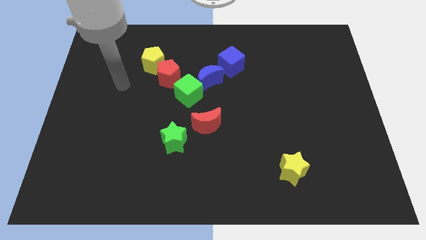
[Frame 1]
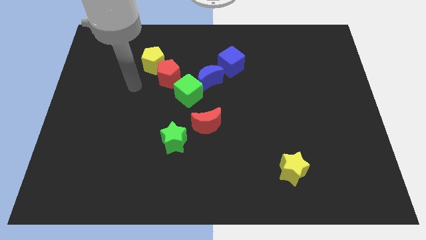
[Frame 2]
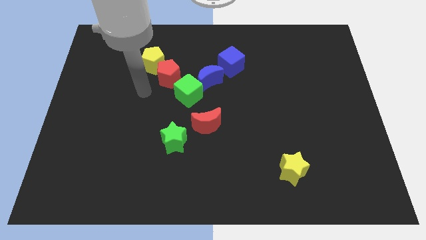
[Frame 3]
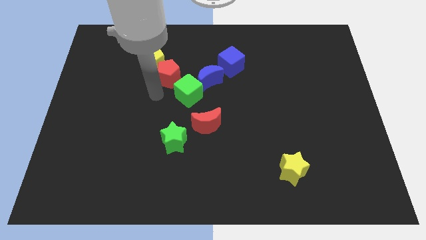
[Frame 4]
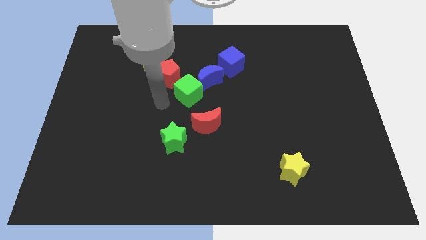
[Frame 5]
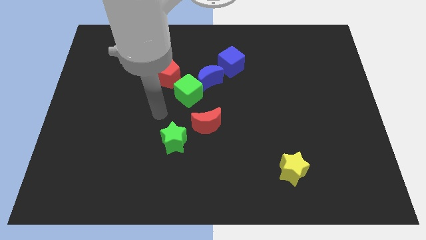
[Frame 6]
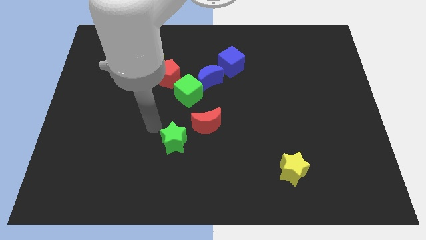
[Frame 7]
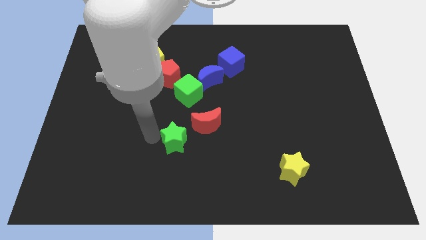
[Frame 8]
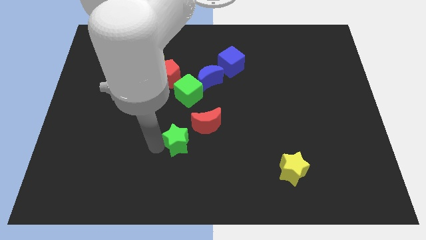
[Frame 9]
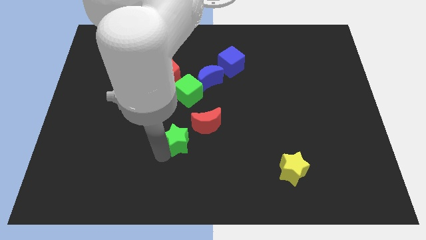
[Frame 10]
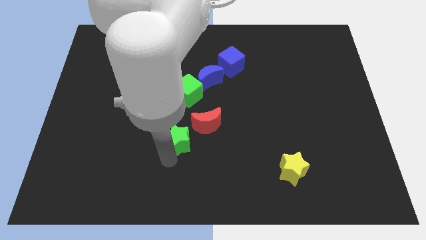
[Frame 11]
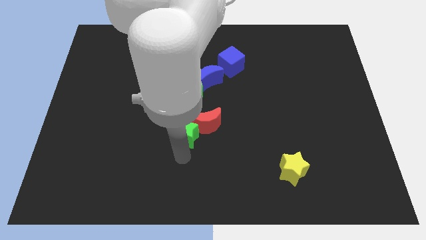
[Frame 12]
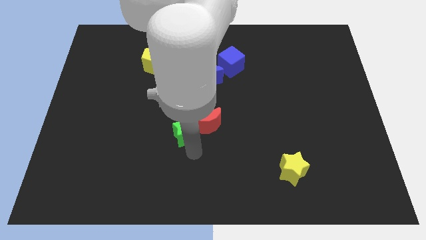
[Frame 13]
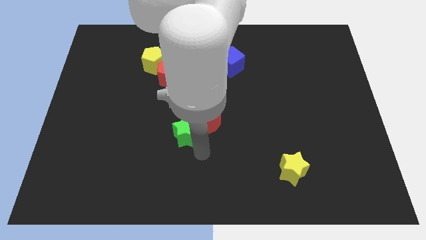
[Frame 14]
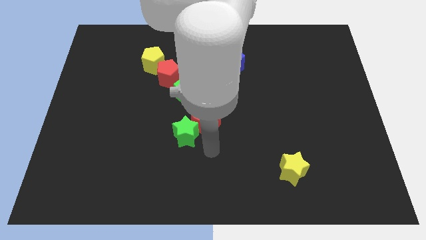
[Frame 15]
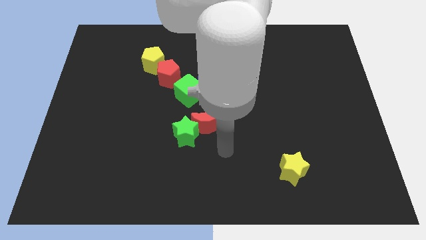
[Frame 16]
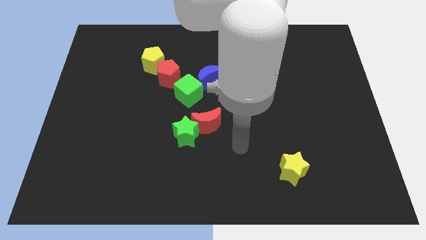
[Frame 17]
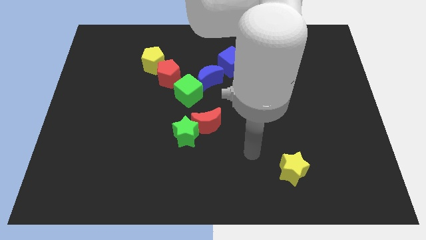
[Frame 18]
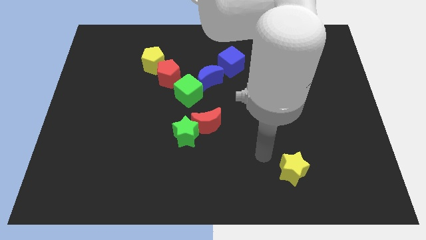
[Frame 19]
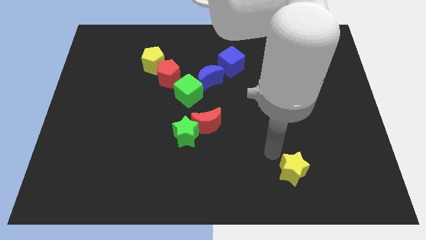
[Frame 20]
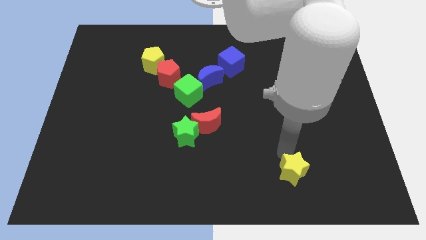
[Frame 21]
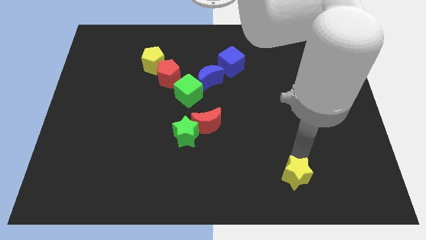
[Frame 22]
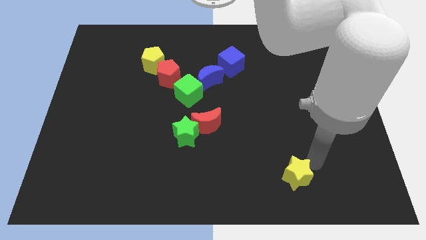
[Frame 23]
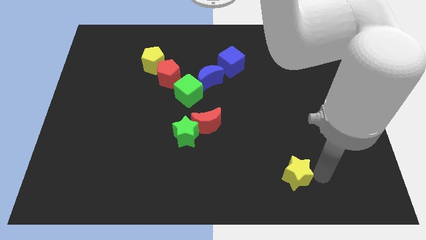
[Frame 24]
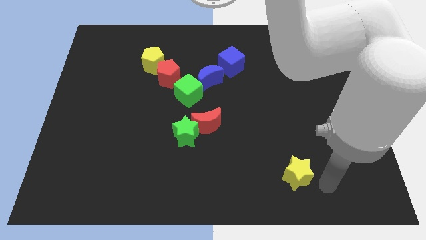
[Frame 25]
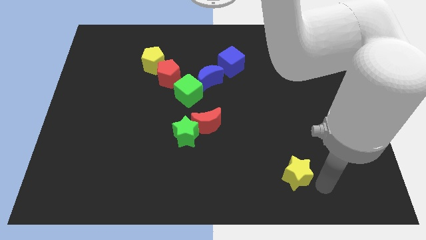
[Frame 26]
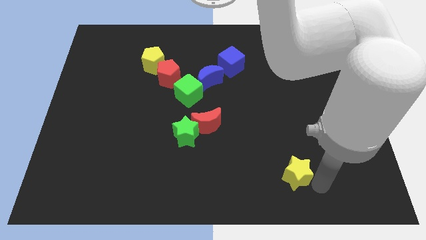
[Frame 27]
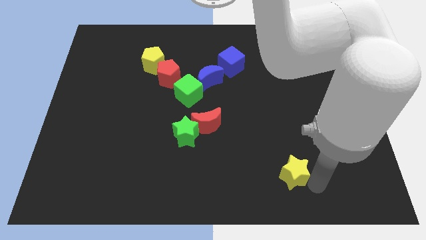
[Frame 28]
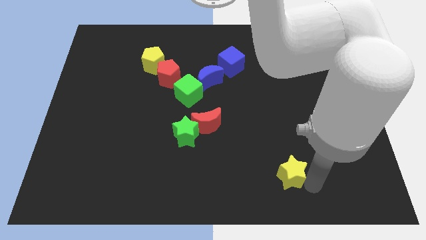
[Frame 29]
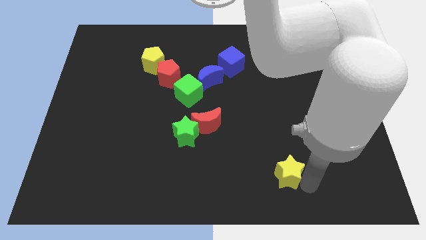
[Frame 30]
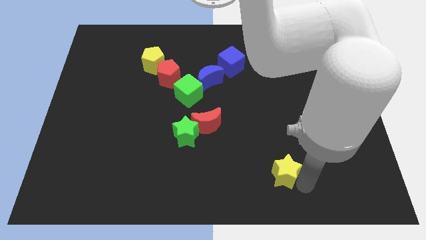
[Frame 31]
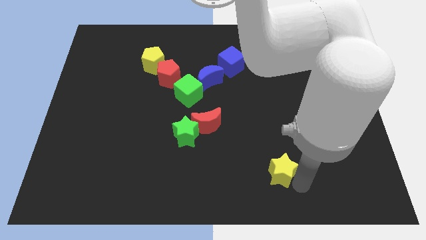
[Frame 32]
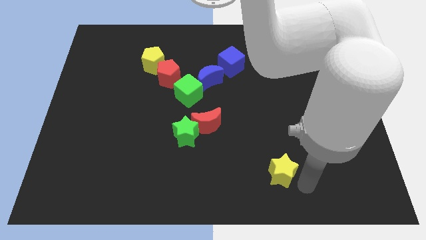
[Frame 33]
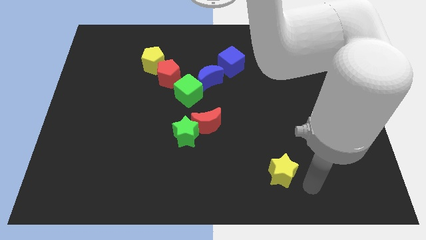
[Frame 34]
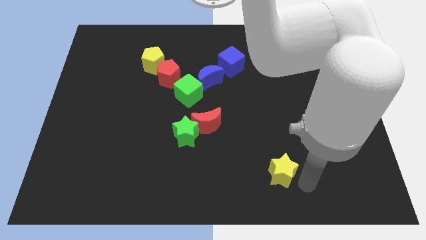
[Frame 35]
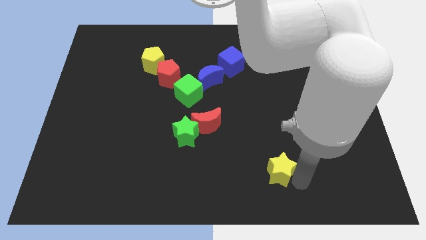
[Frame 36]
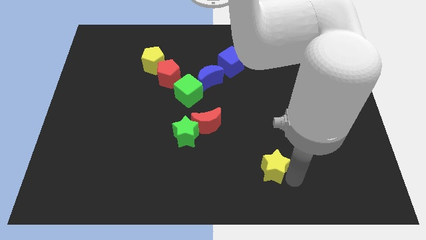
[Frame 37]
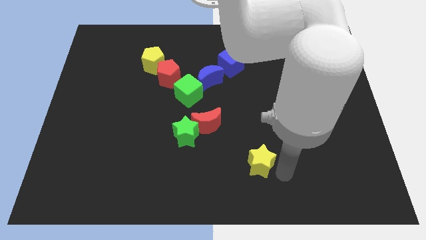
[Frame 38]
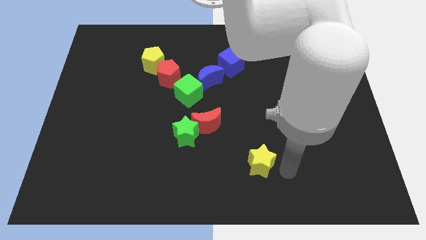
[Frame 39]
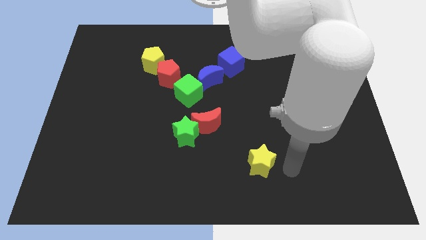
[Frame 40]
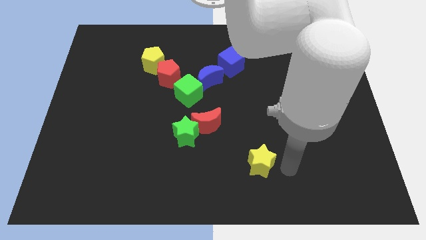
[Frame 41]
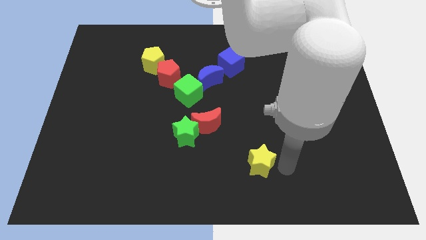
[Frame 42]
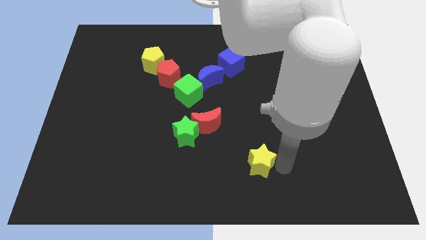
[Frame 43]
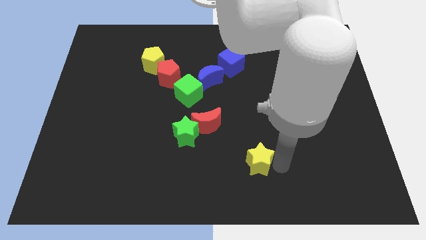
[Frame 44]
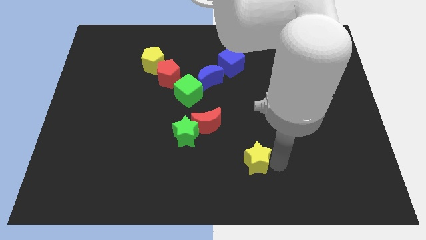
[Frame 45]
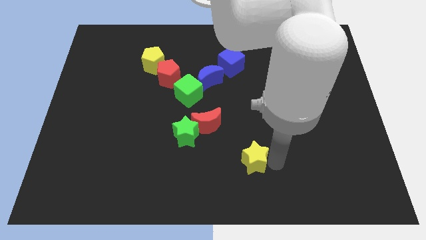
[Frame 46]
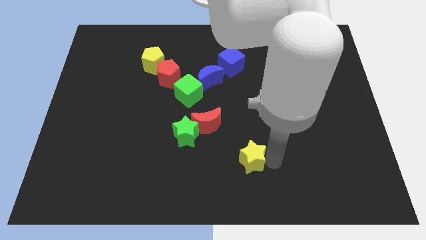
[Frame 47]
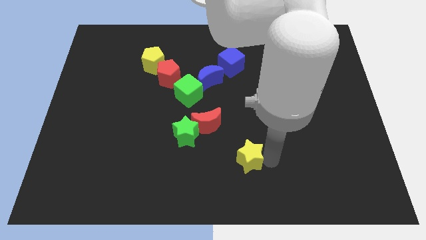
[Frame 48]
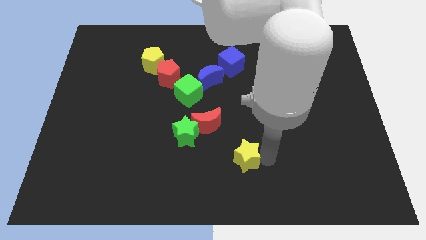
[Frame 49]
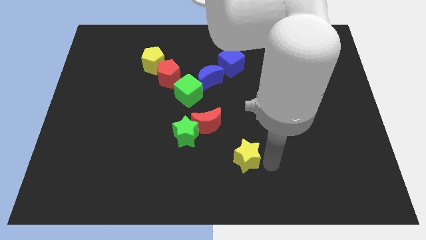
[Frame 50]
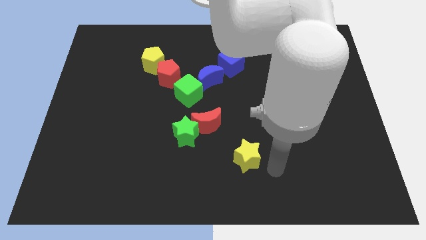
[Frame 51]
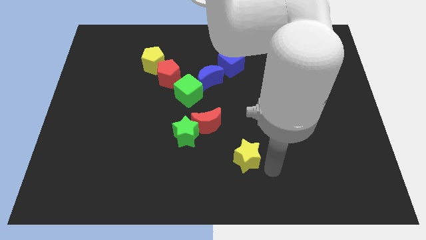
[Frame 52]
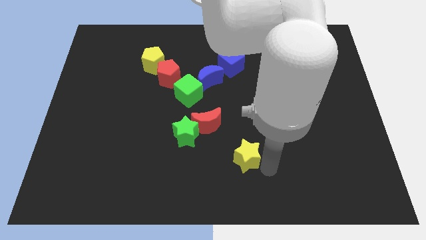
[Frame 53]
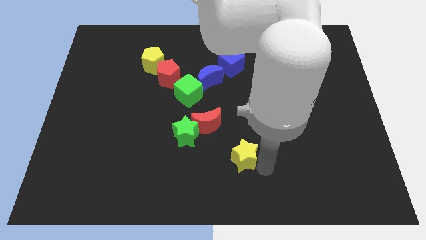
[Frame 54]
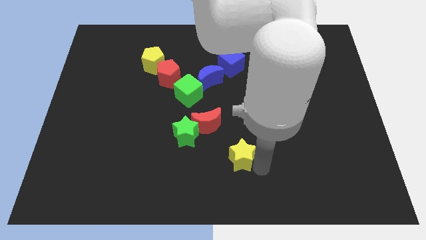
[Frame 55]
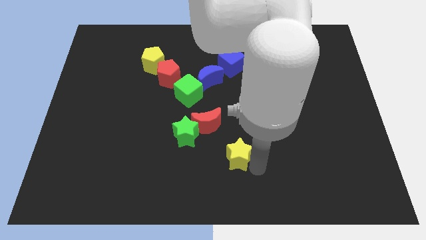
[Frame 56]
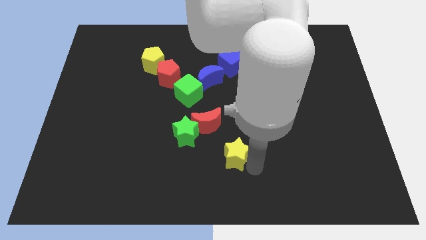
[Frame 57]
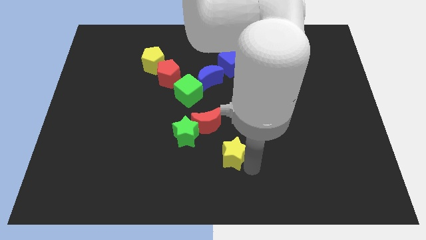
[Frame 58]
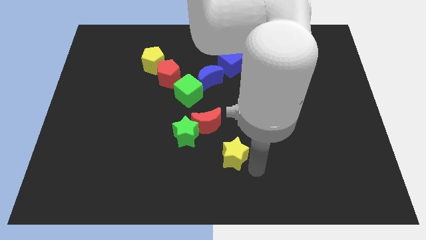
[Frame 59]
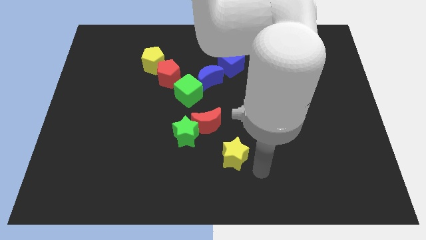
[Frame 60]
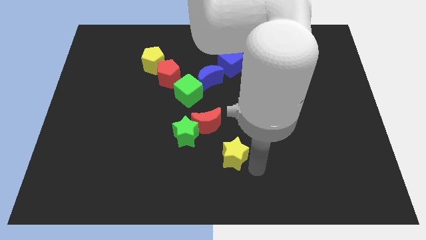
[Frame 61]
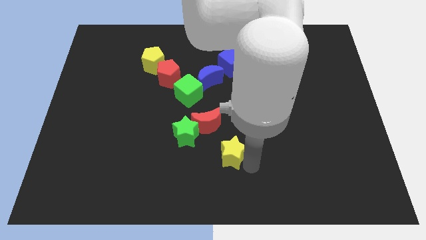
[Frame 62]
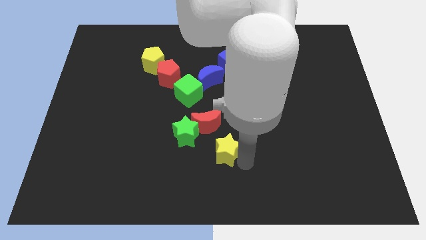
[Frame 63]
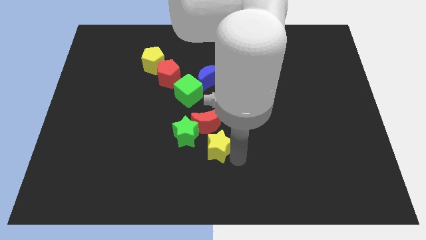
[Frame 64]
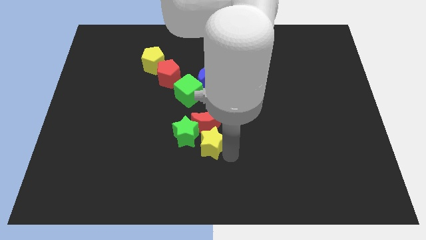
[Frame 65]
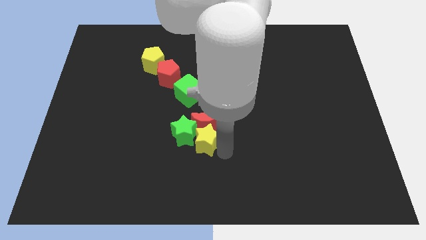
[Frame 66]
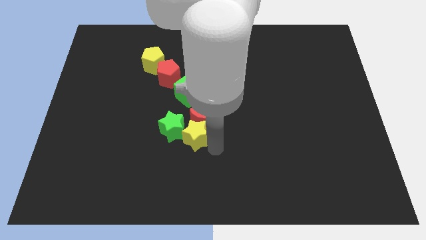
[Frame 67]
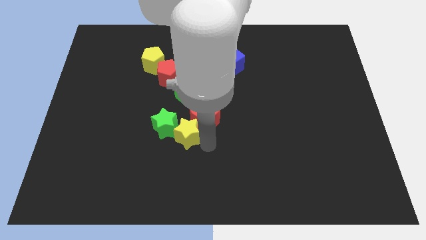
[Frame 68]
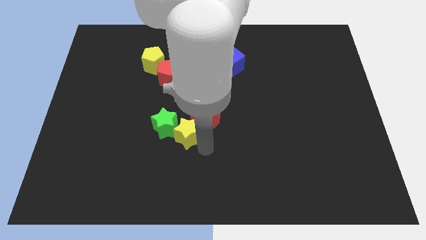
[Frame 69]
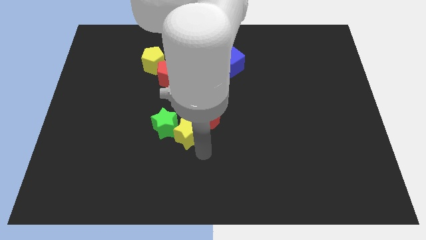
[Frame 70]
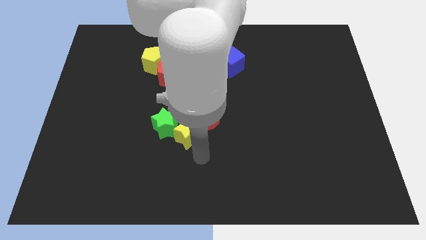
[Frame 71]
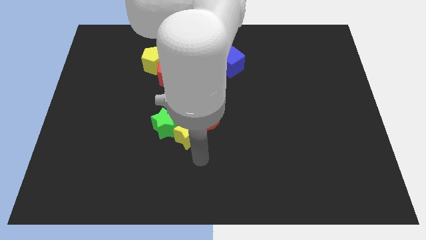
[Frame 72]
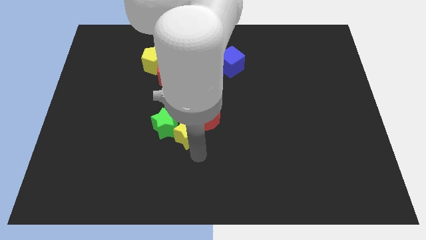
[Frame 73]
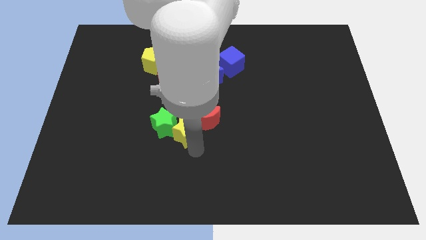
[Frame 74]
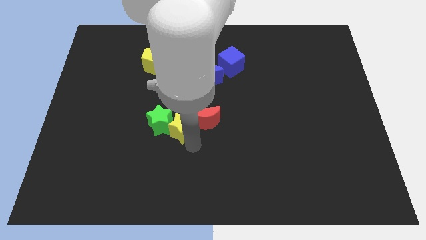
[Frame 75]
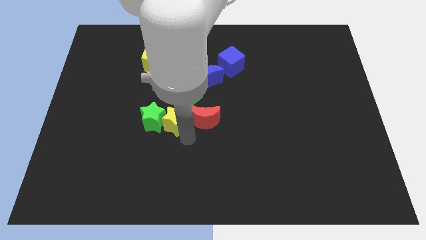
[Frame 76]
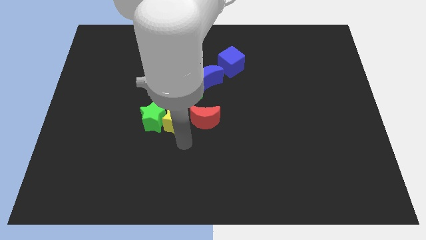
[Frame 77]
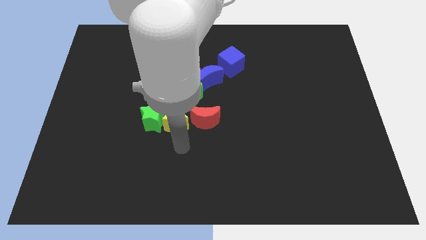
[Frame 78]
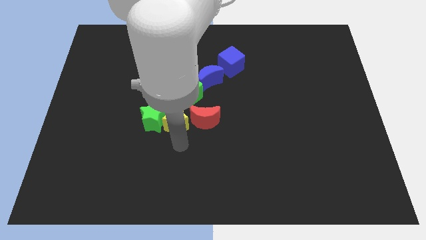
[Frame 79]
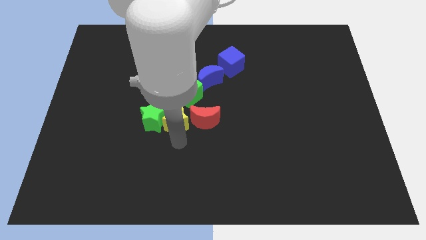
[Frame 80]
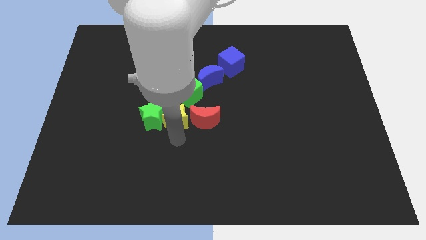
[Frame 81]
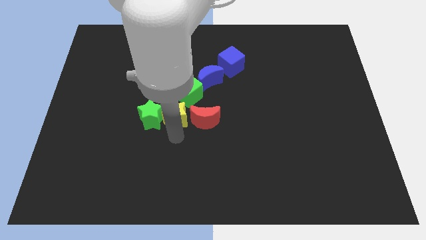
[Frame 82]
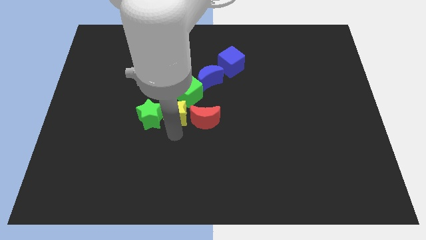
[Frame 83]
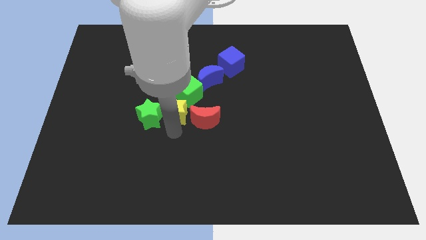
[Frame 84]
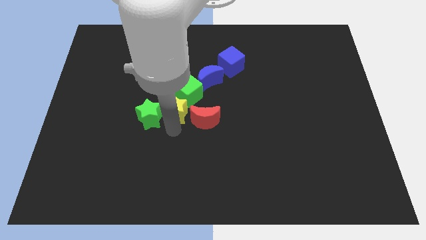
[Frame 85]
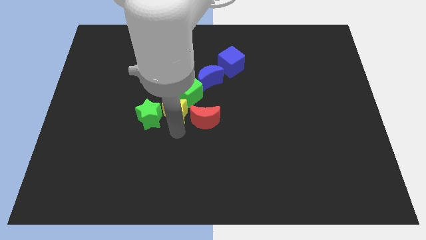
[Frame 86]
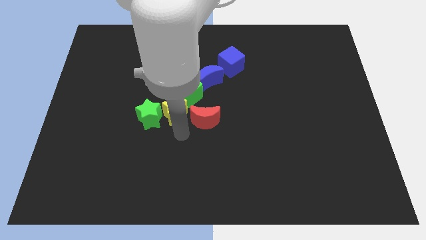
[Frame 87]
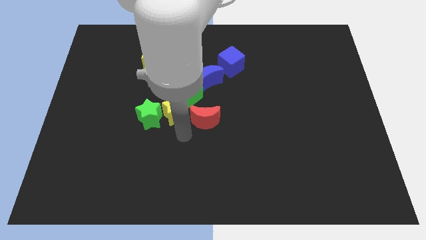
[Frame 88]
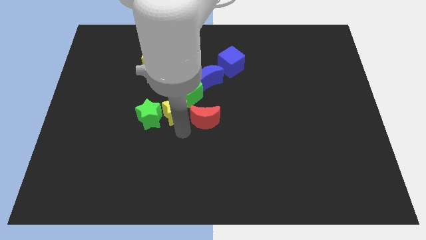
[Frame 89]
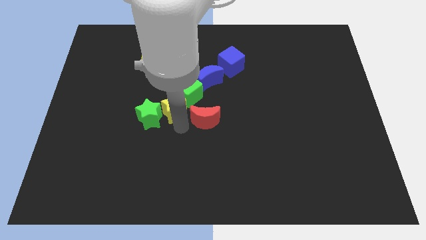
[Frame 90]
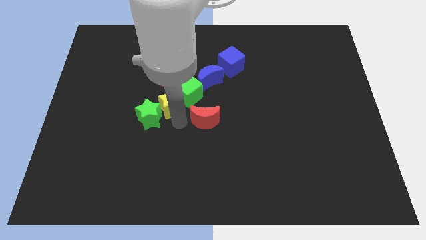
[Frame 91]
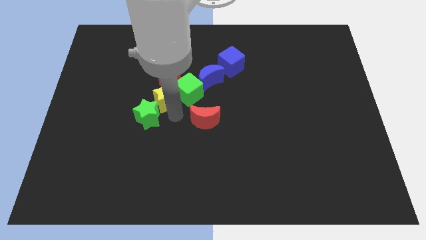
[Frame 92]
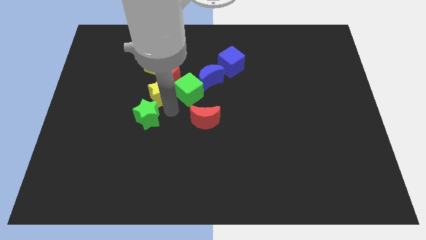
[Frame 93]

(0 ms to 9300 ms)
slide the yellow star close to the red pentagon
